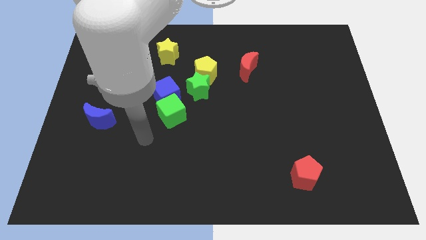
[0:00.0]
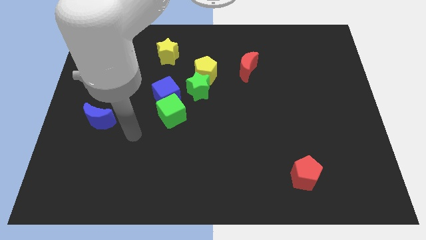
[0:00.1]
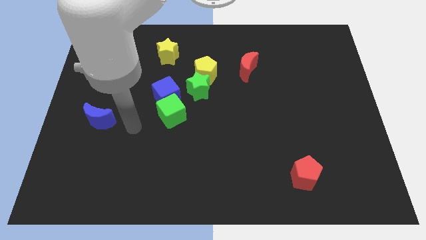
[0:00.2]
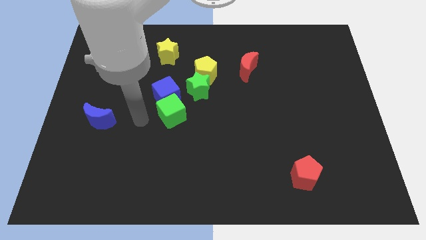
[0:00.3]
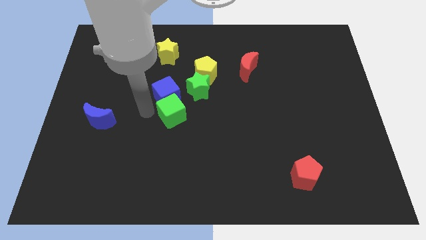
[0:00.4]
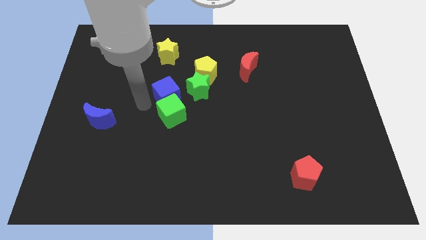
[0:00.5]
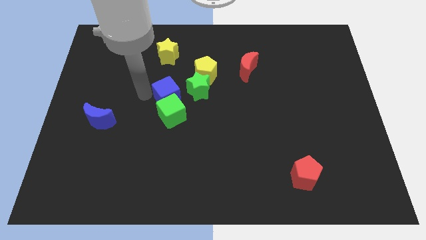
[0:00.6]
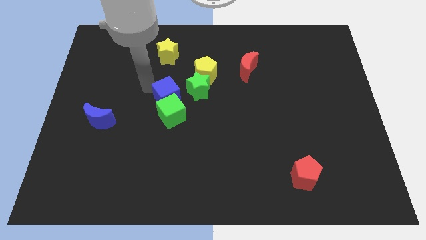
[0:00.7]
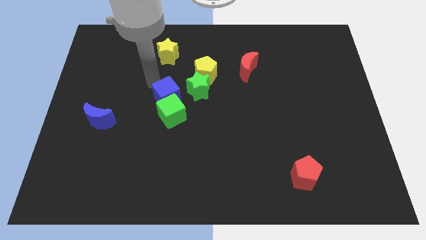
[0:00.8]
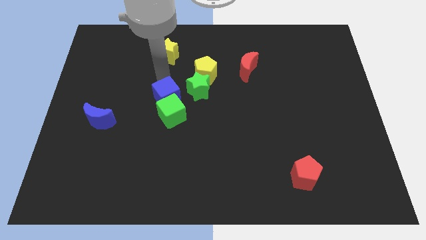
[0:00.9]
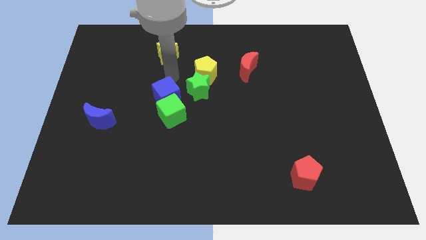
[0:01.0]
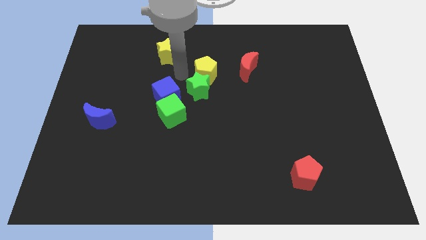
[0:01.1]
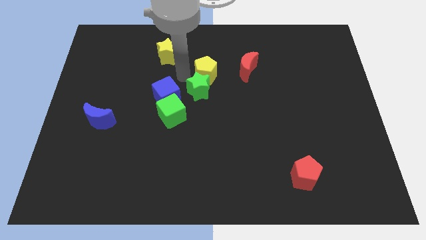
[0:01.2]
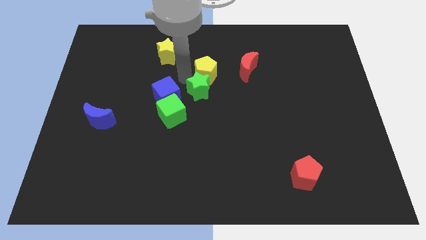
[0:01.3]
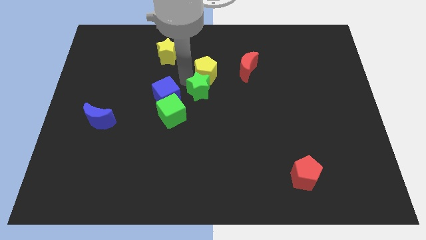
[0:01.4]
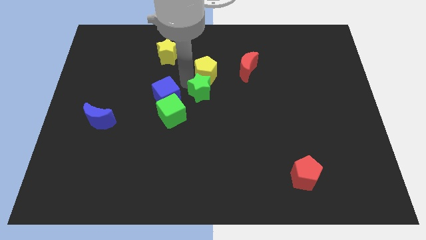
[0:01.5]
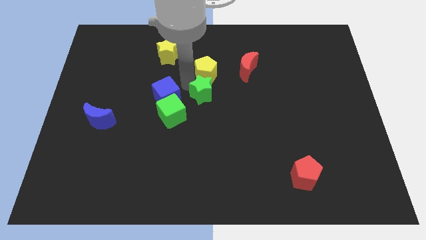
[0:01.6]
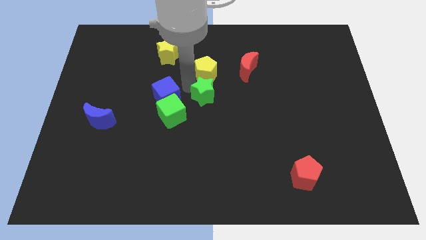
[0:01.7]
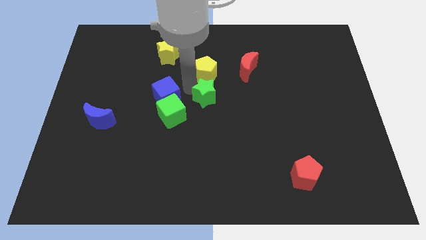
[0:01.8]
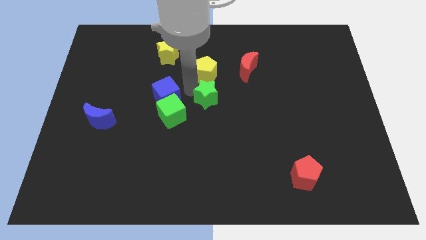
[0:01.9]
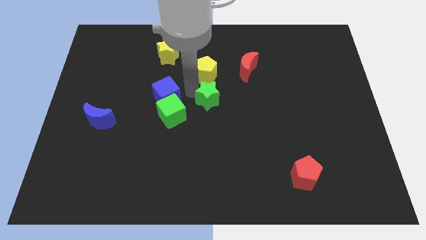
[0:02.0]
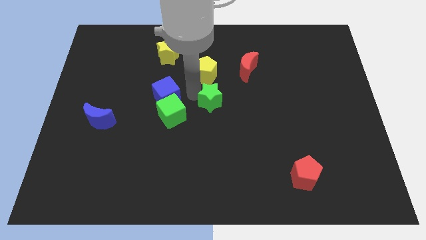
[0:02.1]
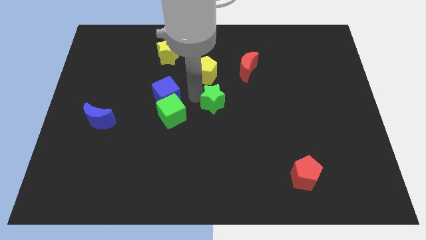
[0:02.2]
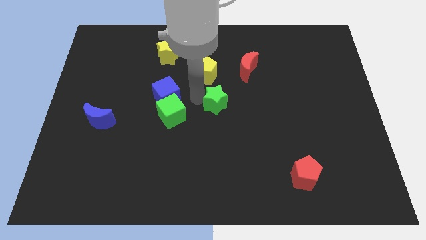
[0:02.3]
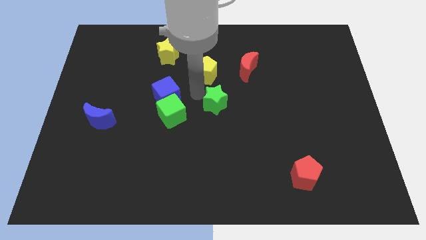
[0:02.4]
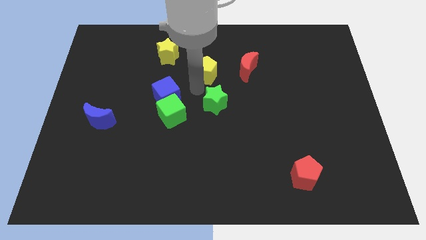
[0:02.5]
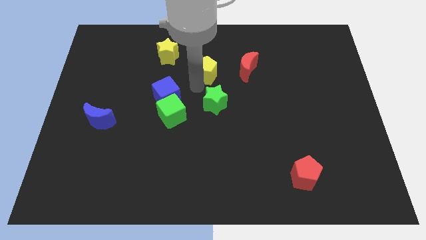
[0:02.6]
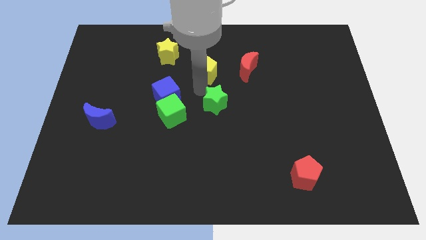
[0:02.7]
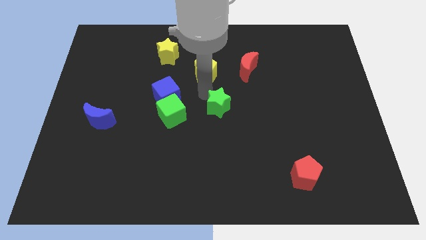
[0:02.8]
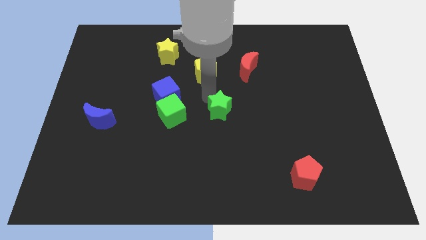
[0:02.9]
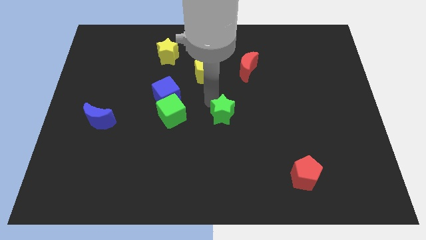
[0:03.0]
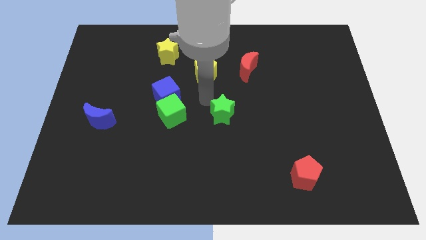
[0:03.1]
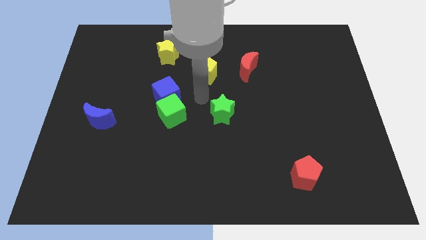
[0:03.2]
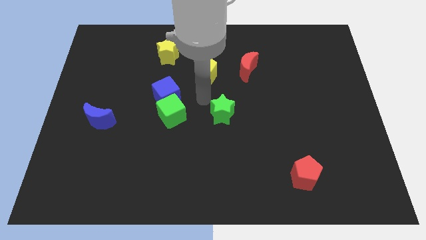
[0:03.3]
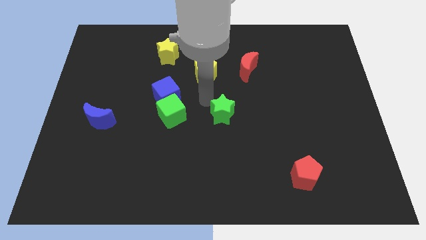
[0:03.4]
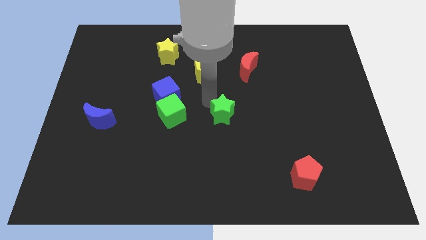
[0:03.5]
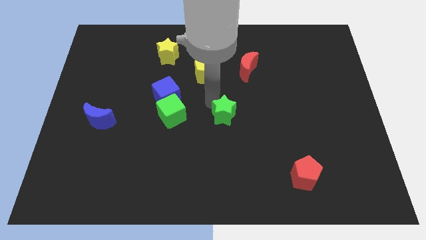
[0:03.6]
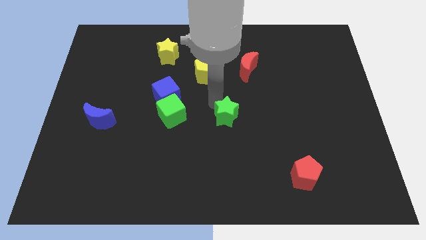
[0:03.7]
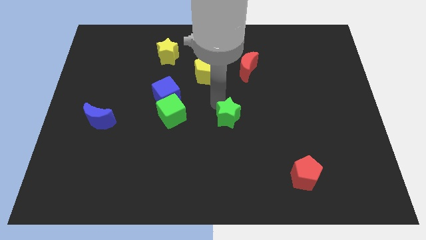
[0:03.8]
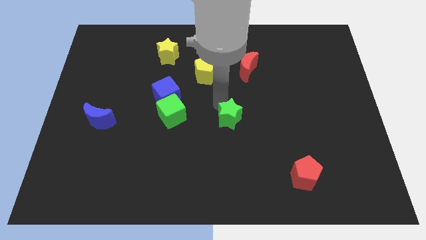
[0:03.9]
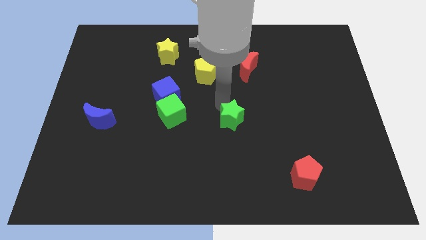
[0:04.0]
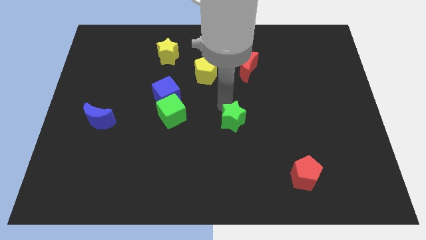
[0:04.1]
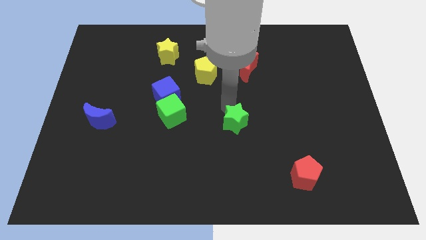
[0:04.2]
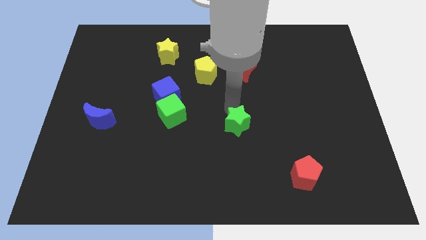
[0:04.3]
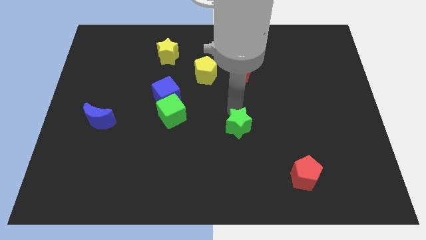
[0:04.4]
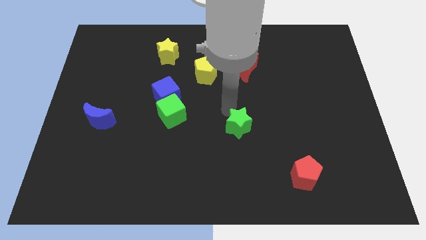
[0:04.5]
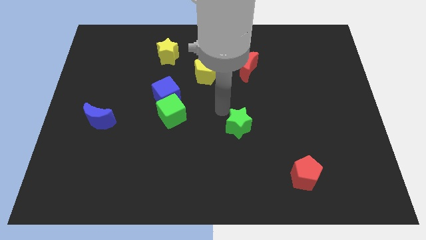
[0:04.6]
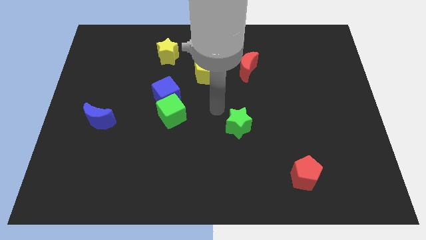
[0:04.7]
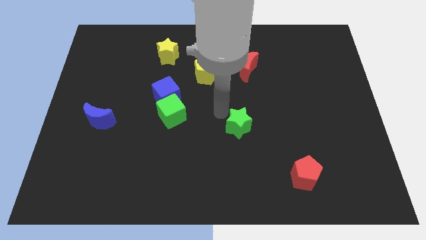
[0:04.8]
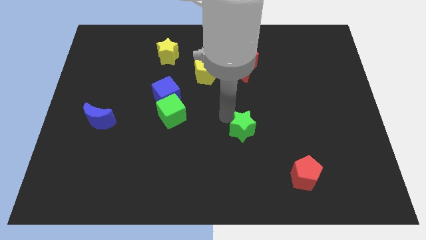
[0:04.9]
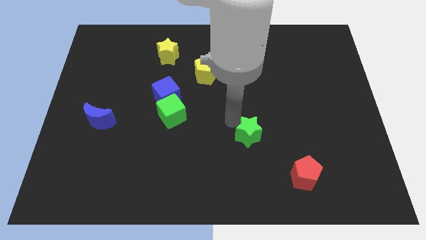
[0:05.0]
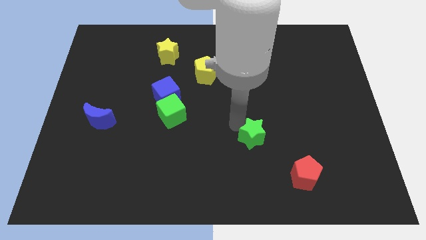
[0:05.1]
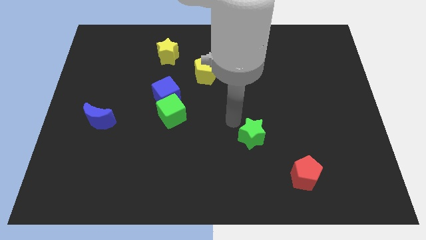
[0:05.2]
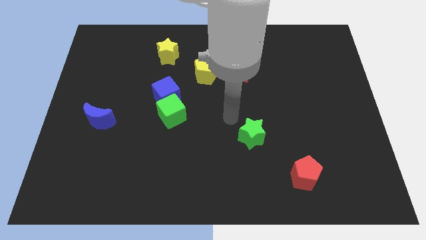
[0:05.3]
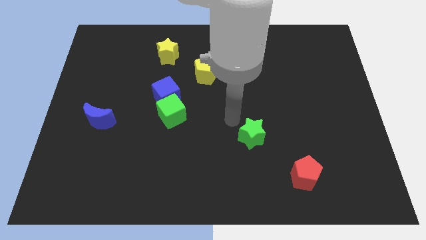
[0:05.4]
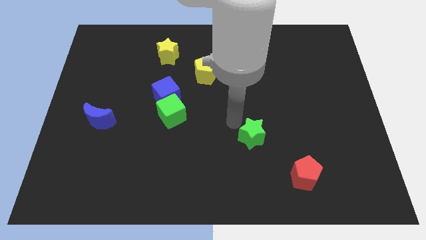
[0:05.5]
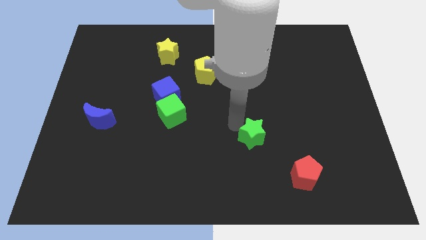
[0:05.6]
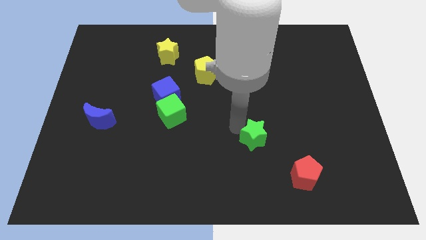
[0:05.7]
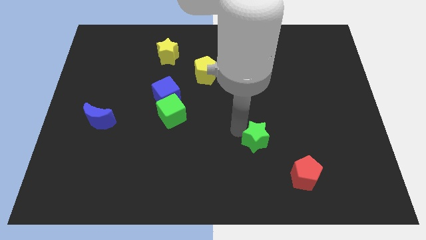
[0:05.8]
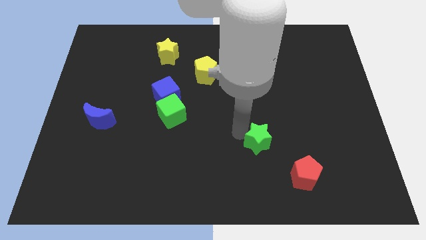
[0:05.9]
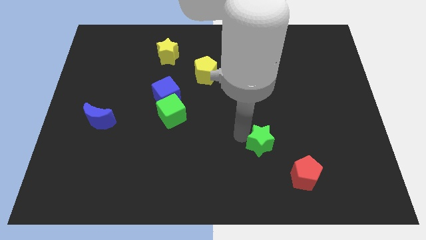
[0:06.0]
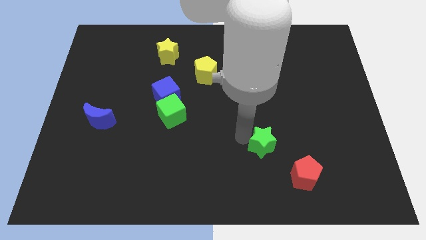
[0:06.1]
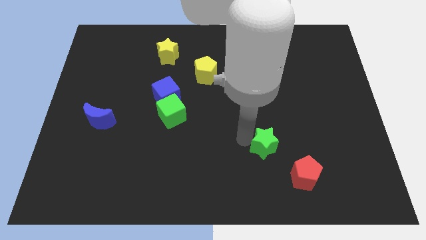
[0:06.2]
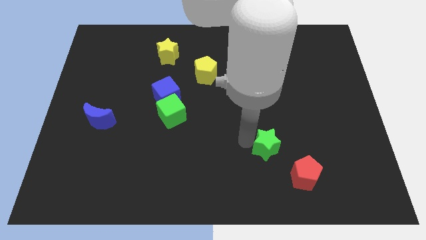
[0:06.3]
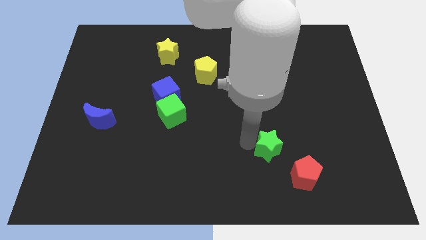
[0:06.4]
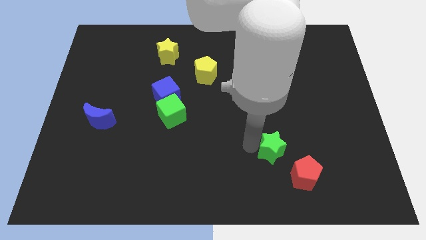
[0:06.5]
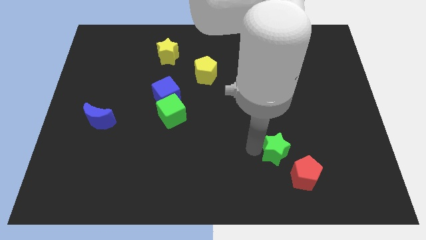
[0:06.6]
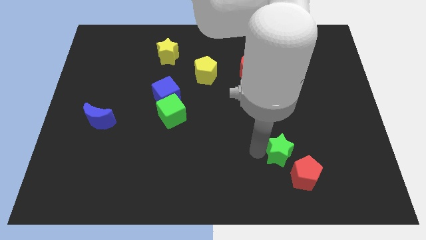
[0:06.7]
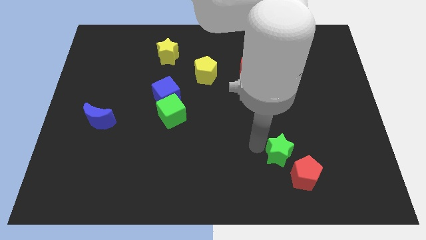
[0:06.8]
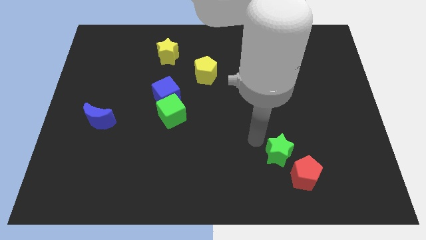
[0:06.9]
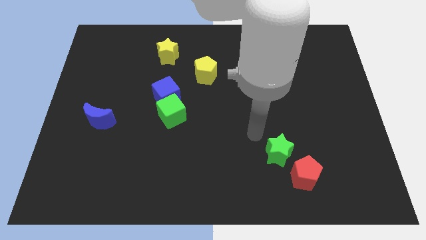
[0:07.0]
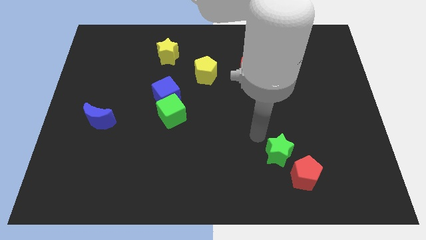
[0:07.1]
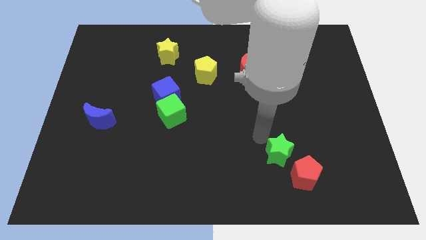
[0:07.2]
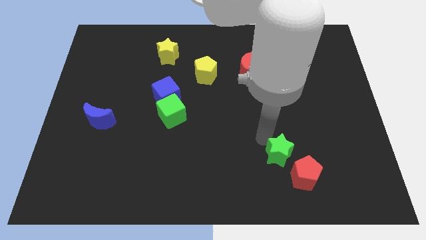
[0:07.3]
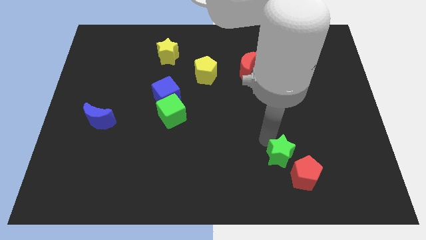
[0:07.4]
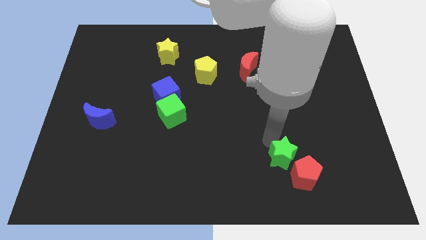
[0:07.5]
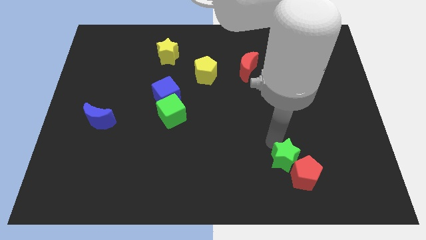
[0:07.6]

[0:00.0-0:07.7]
put the green star next to the red pentagon
